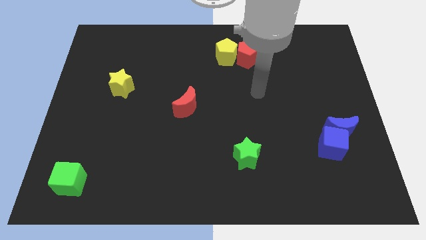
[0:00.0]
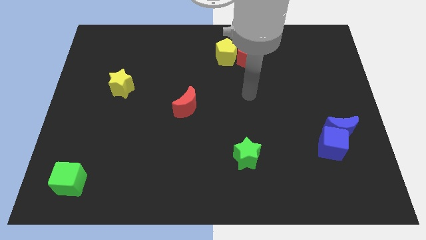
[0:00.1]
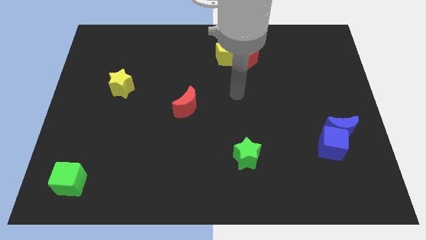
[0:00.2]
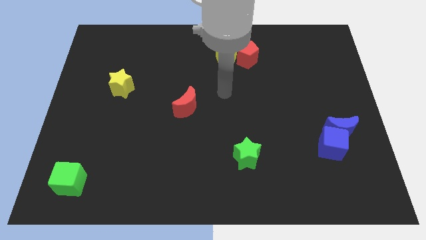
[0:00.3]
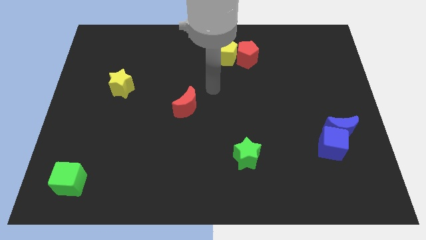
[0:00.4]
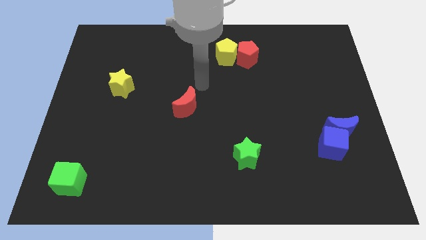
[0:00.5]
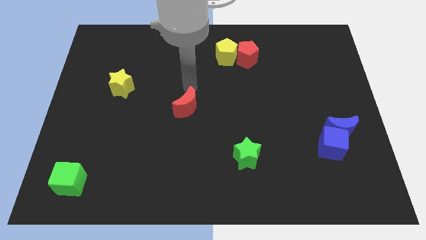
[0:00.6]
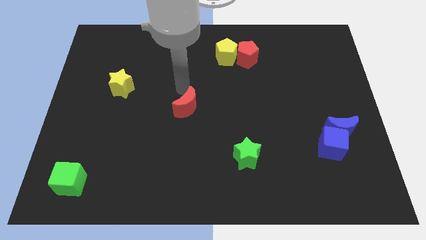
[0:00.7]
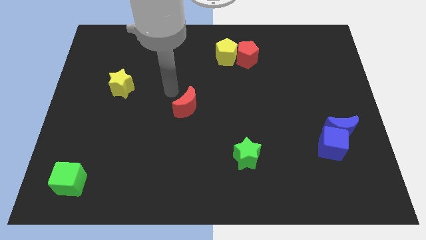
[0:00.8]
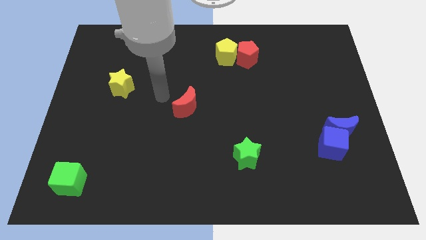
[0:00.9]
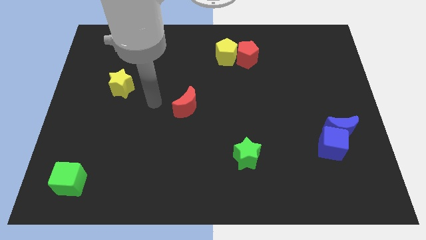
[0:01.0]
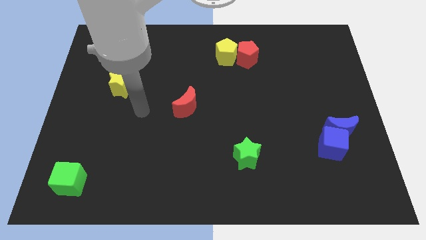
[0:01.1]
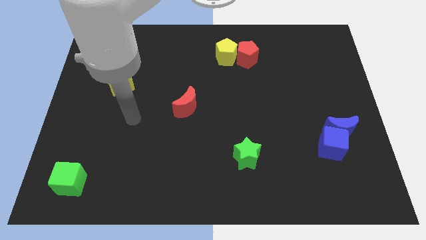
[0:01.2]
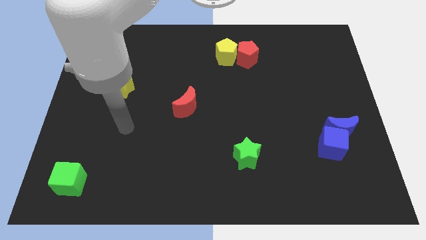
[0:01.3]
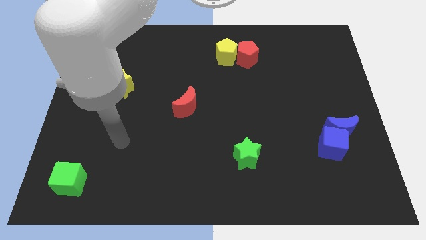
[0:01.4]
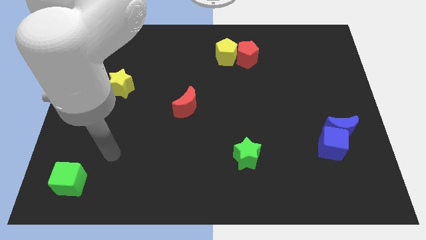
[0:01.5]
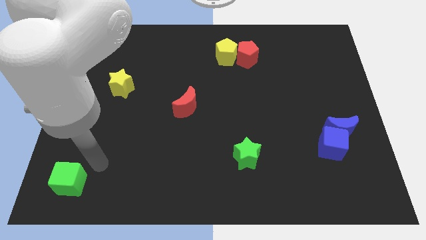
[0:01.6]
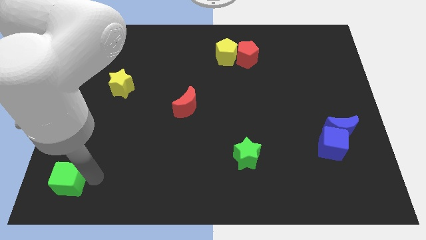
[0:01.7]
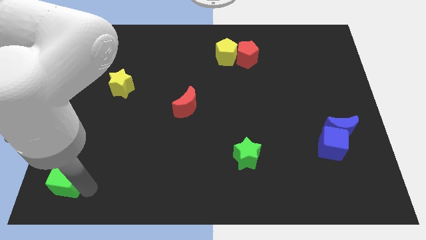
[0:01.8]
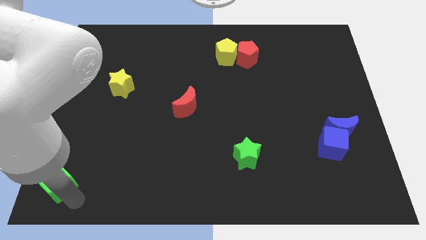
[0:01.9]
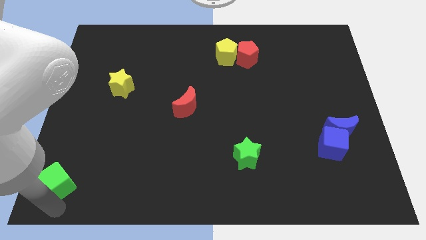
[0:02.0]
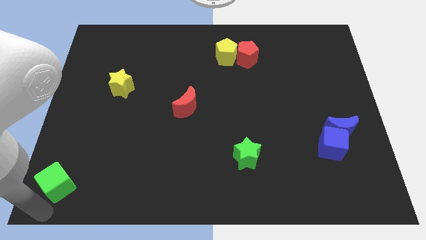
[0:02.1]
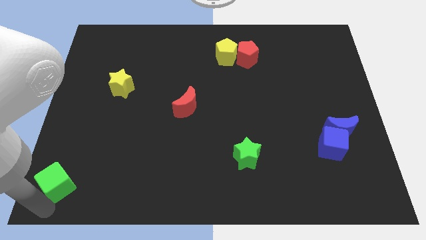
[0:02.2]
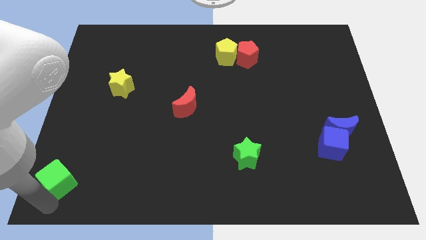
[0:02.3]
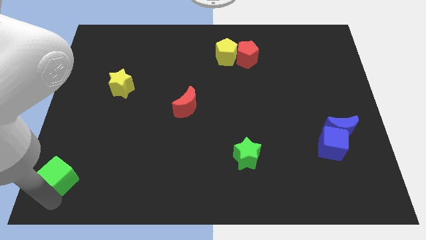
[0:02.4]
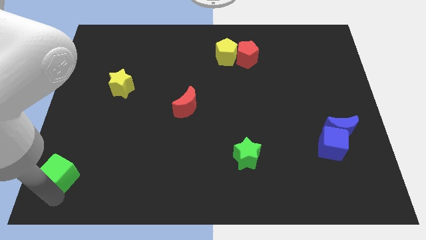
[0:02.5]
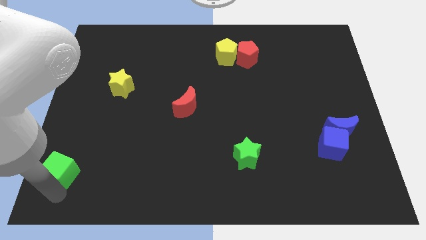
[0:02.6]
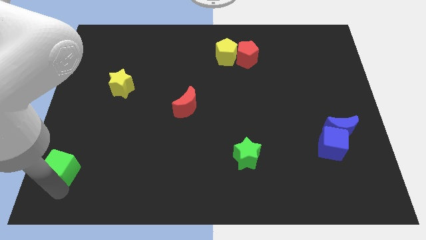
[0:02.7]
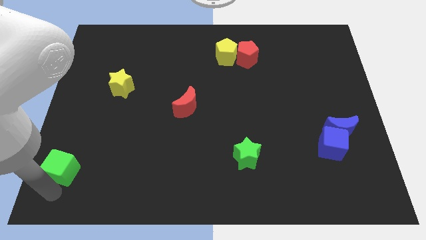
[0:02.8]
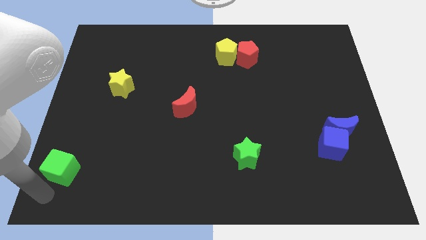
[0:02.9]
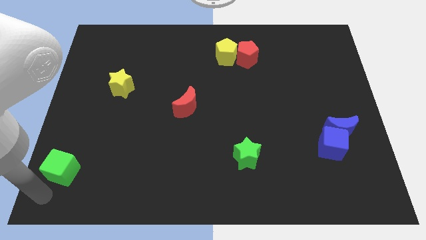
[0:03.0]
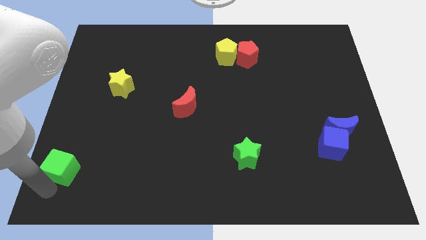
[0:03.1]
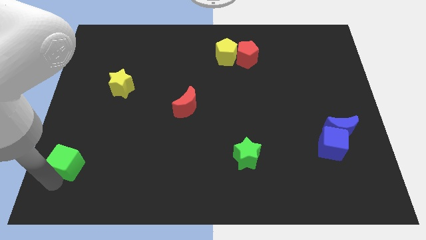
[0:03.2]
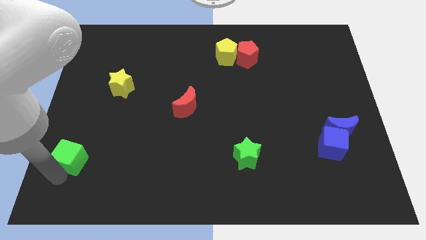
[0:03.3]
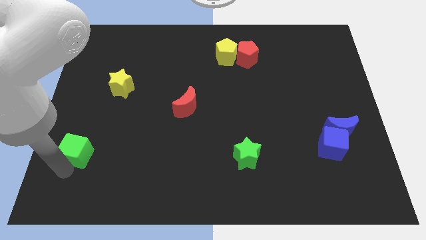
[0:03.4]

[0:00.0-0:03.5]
push the green cube a little up

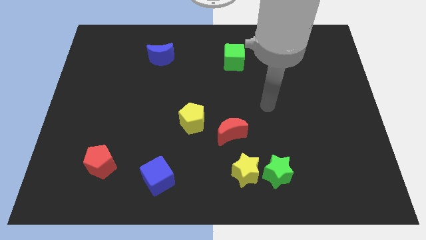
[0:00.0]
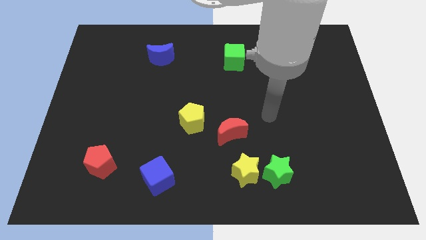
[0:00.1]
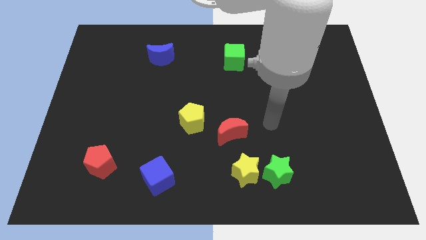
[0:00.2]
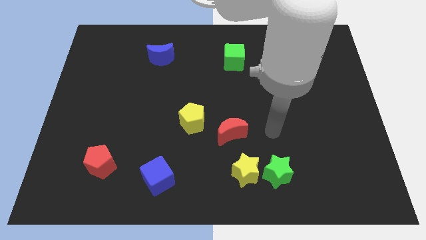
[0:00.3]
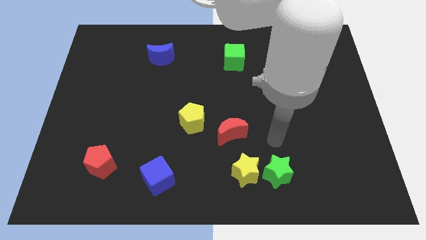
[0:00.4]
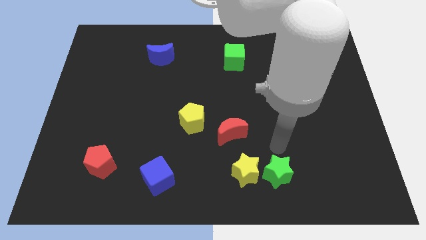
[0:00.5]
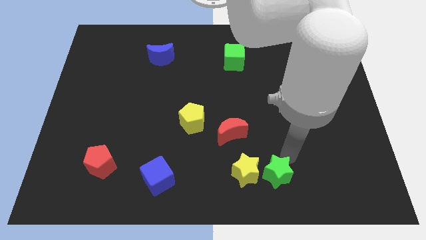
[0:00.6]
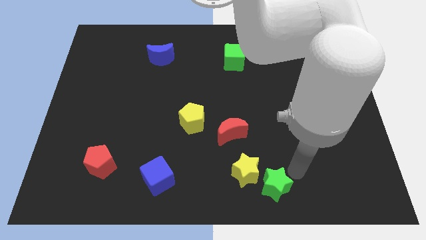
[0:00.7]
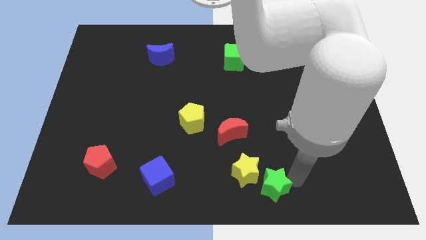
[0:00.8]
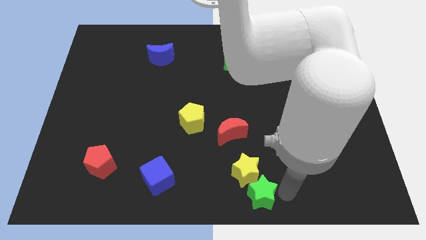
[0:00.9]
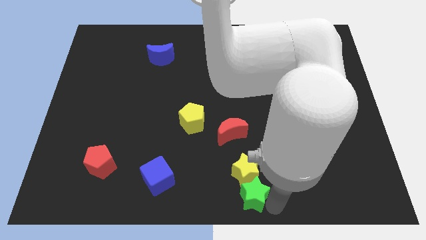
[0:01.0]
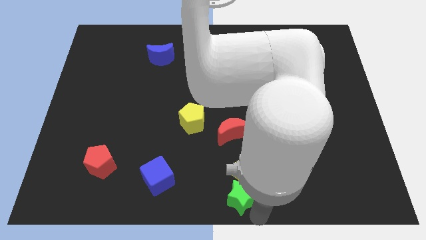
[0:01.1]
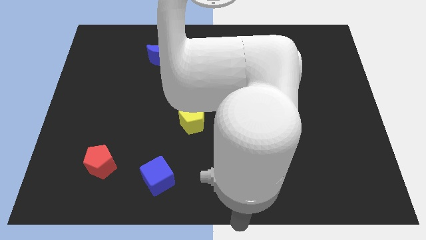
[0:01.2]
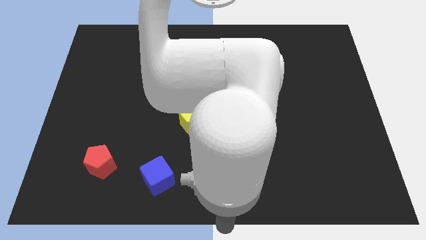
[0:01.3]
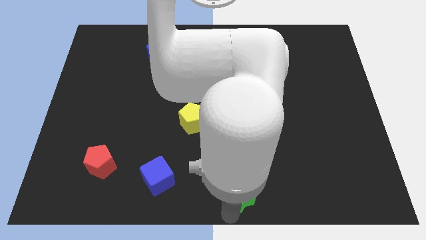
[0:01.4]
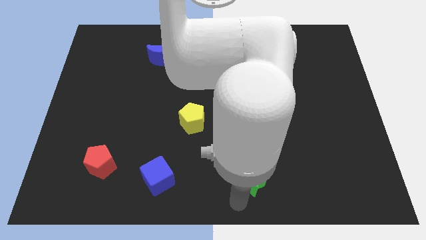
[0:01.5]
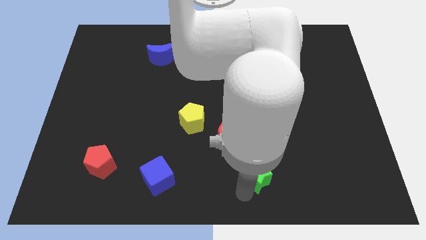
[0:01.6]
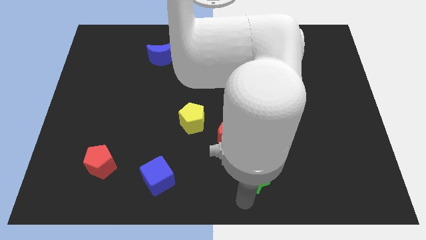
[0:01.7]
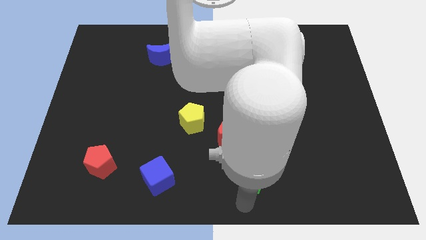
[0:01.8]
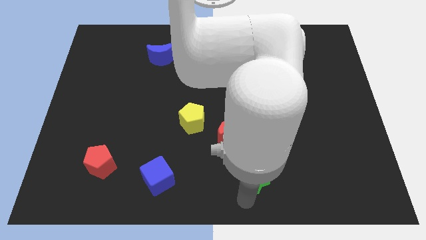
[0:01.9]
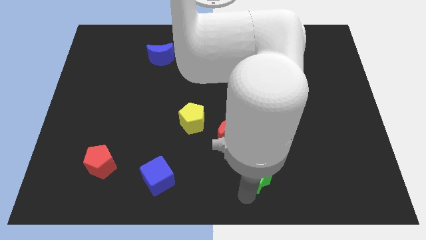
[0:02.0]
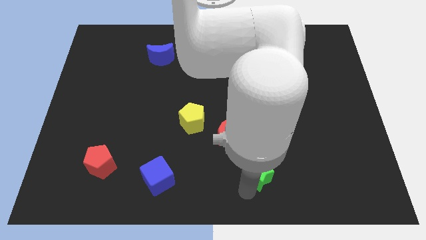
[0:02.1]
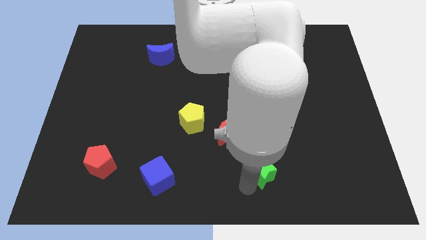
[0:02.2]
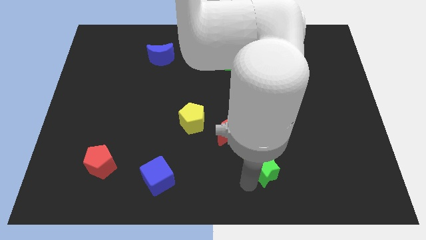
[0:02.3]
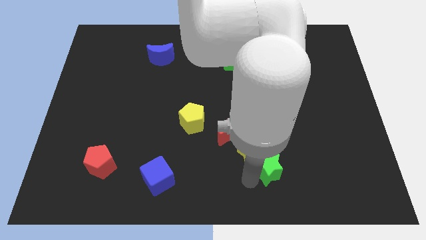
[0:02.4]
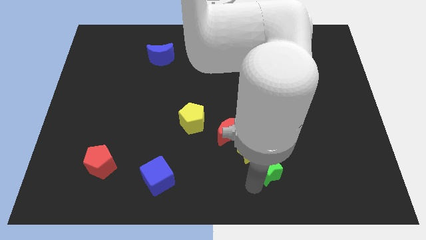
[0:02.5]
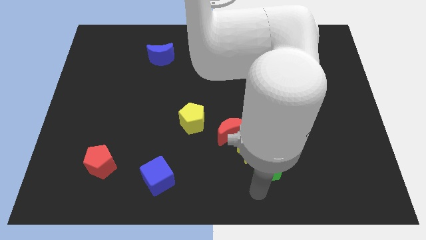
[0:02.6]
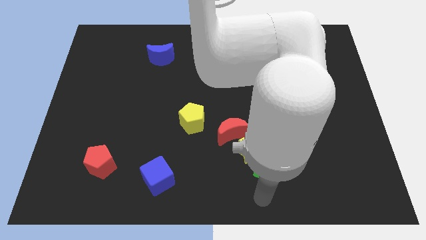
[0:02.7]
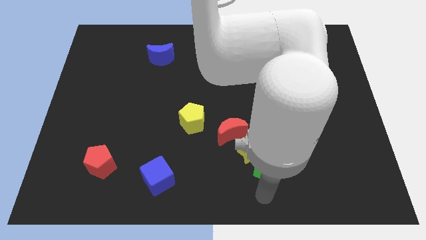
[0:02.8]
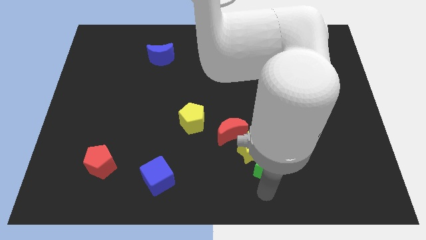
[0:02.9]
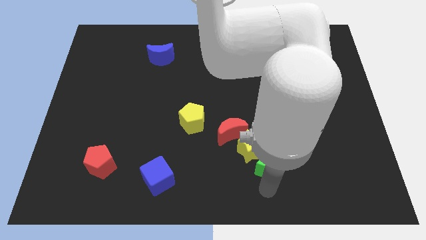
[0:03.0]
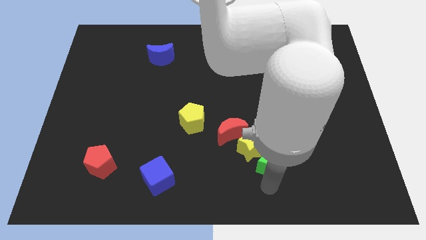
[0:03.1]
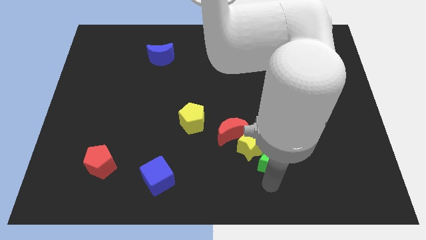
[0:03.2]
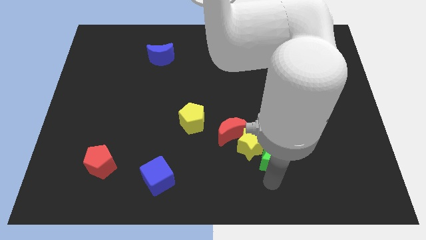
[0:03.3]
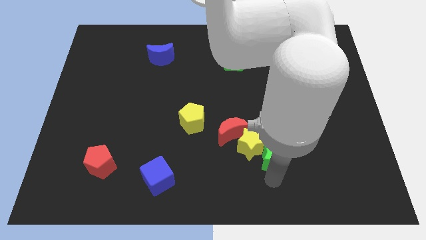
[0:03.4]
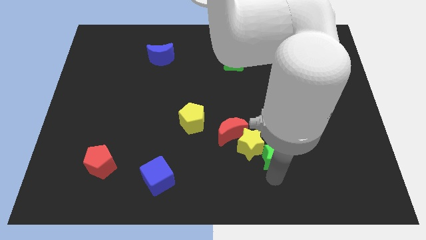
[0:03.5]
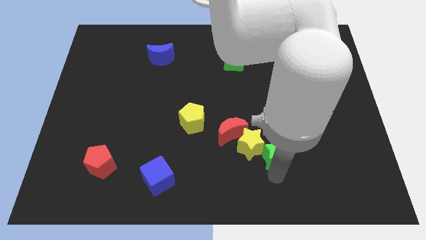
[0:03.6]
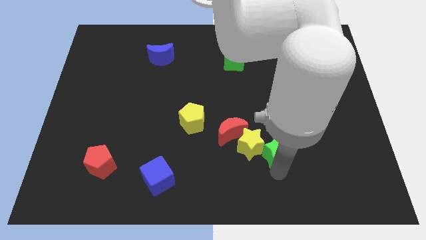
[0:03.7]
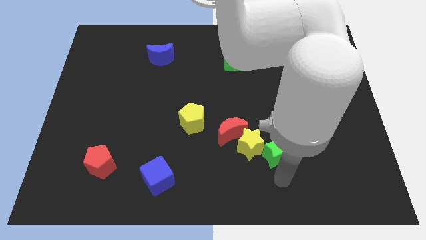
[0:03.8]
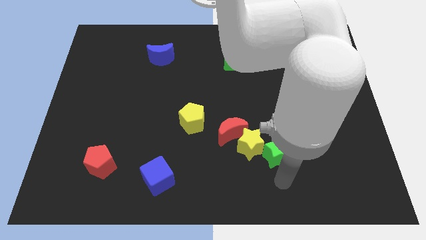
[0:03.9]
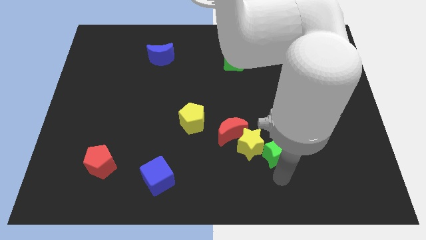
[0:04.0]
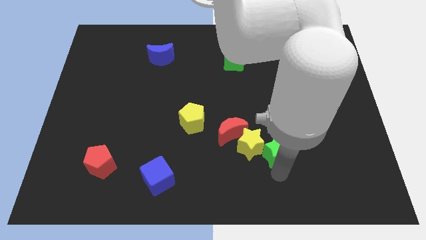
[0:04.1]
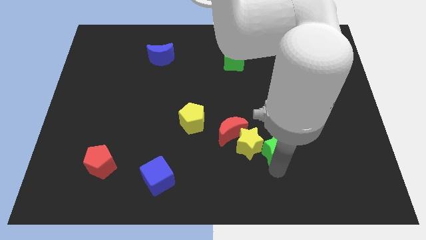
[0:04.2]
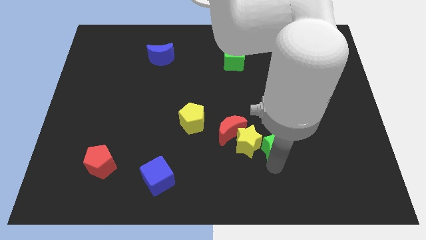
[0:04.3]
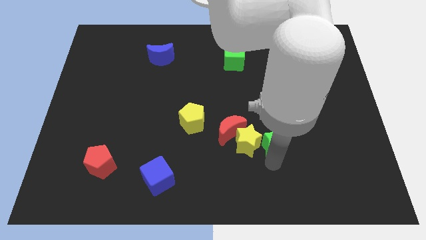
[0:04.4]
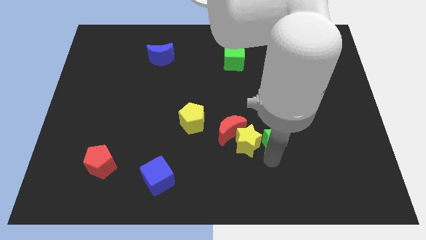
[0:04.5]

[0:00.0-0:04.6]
slide the green star slightly upwards
